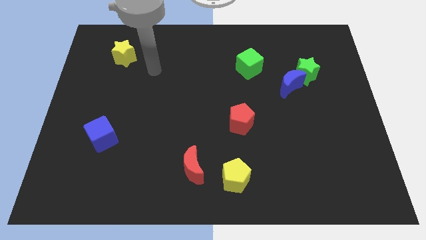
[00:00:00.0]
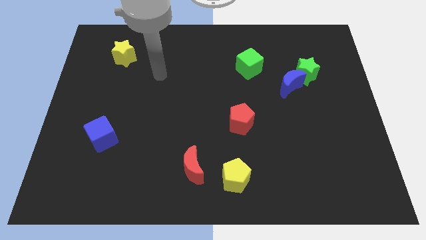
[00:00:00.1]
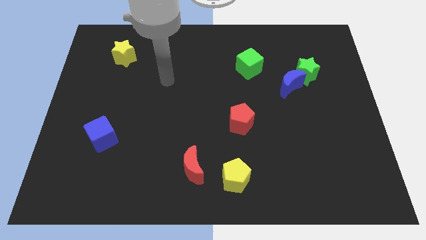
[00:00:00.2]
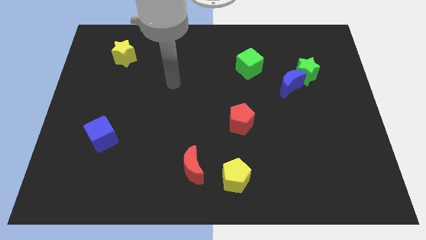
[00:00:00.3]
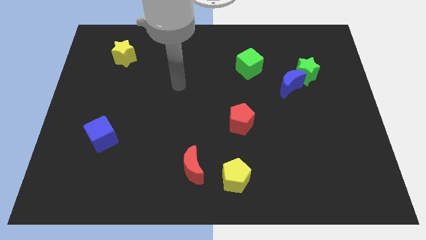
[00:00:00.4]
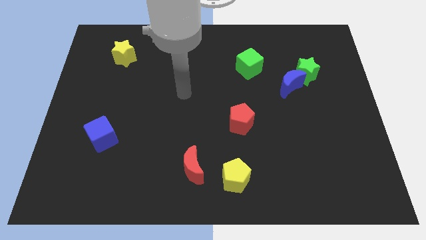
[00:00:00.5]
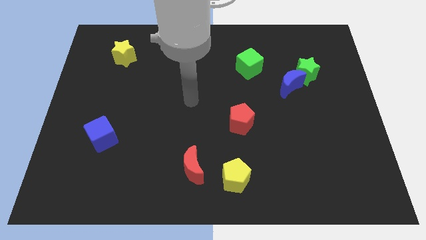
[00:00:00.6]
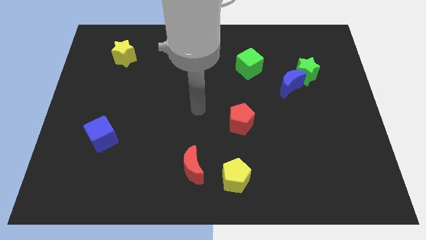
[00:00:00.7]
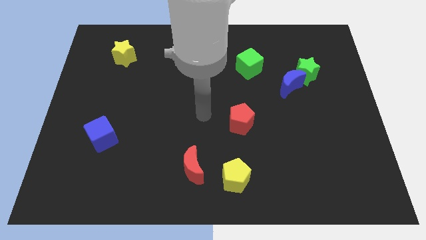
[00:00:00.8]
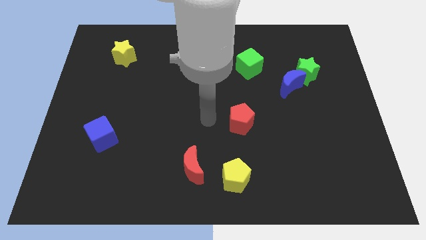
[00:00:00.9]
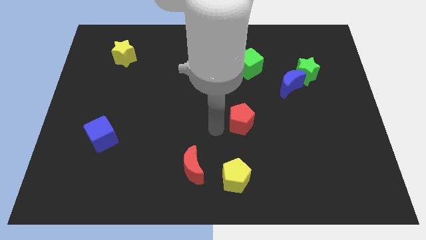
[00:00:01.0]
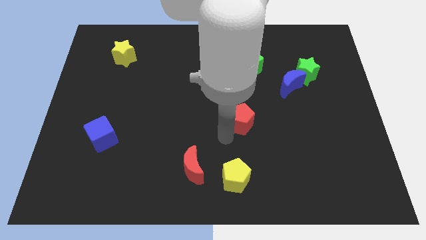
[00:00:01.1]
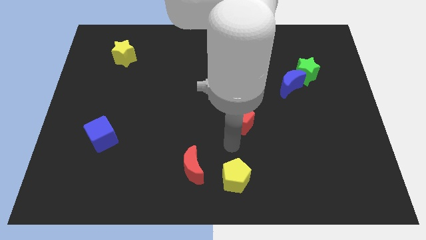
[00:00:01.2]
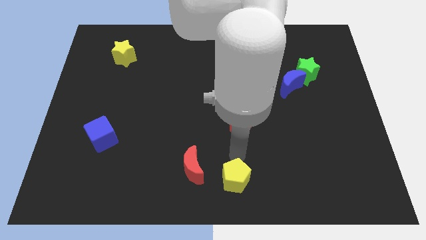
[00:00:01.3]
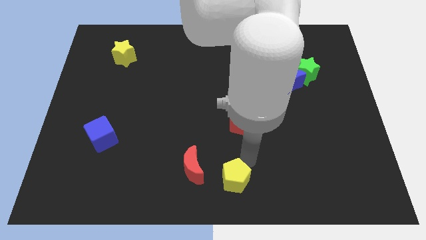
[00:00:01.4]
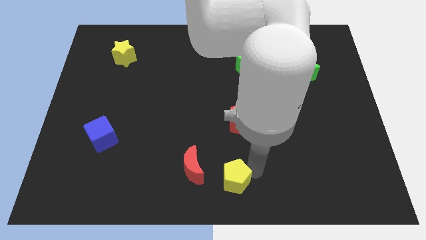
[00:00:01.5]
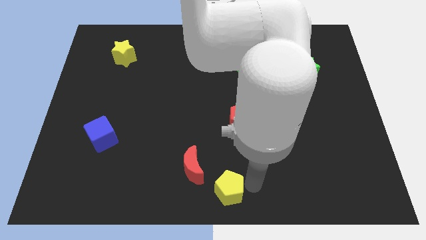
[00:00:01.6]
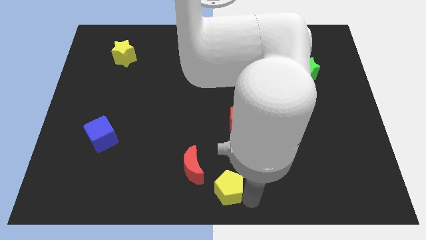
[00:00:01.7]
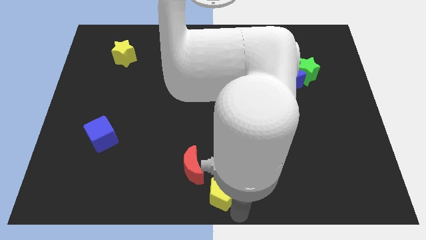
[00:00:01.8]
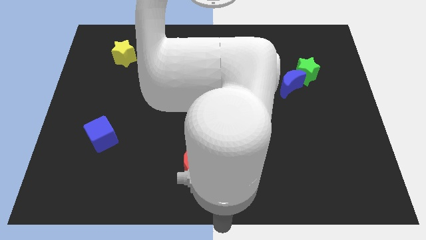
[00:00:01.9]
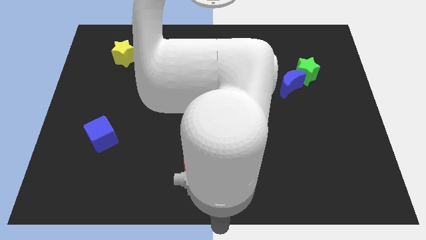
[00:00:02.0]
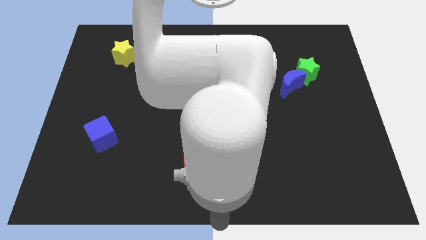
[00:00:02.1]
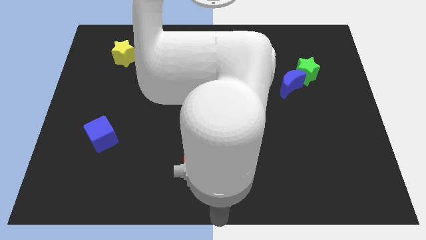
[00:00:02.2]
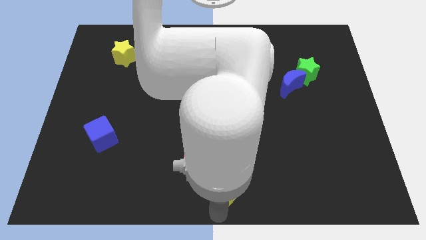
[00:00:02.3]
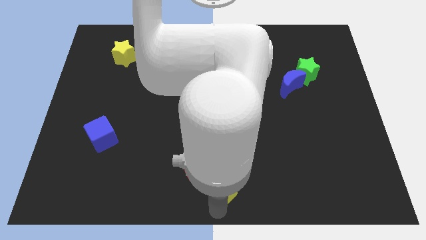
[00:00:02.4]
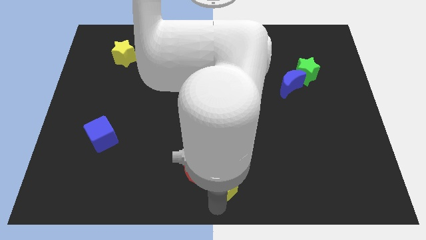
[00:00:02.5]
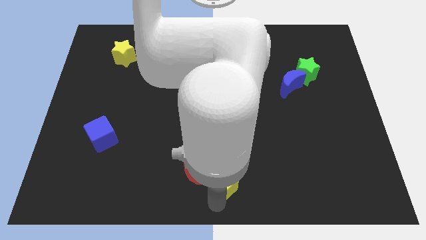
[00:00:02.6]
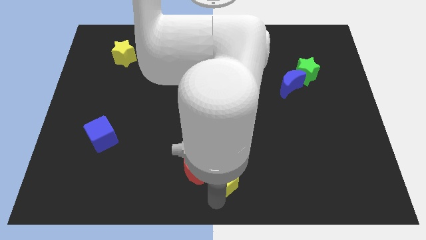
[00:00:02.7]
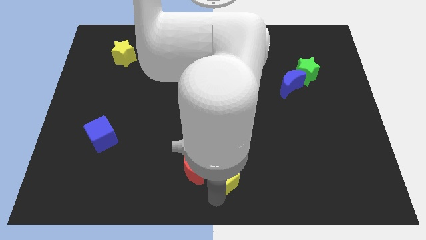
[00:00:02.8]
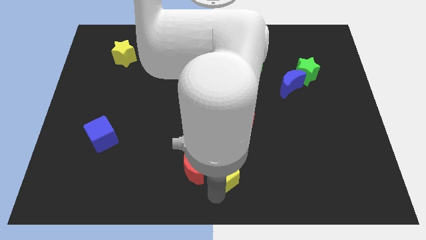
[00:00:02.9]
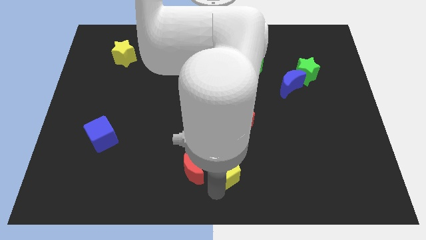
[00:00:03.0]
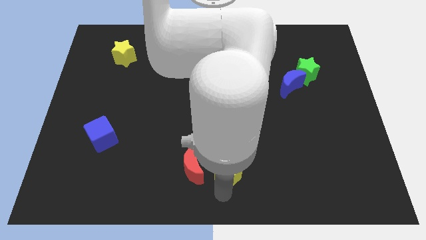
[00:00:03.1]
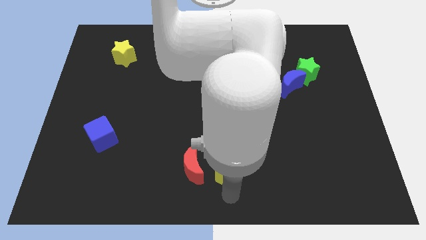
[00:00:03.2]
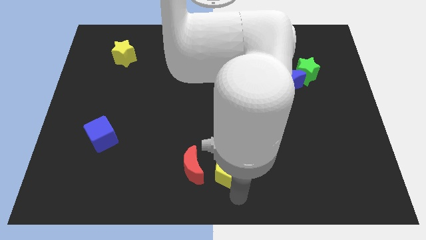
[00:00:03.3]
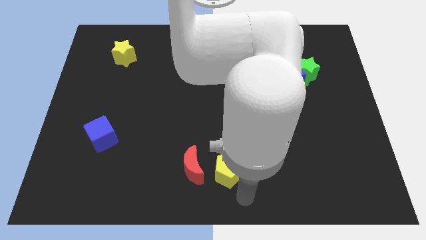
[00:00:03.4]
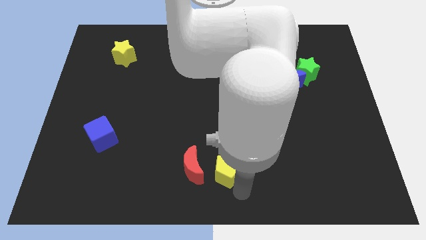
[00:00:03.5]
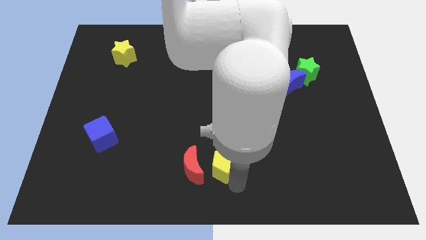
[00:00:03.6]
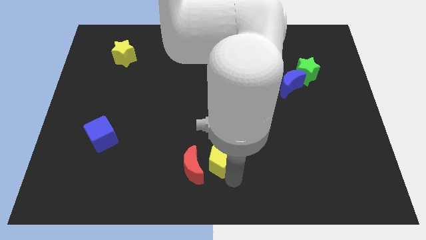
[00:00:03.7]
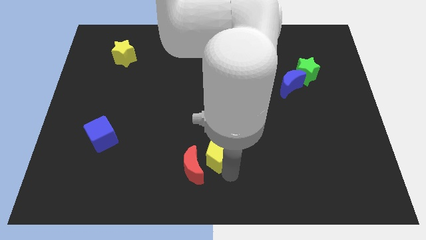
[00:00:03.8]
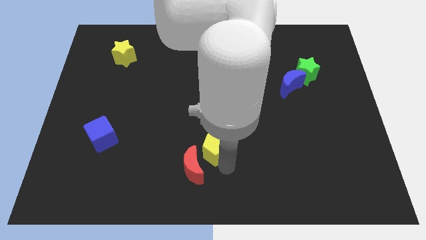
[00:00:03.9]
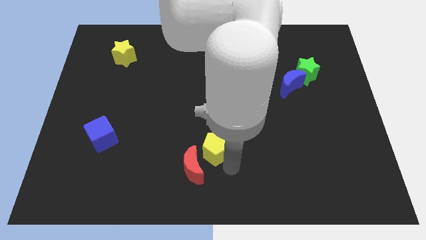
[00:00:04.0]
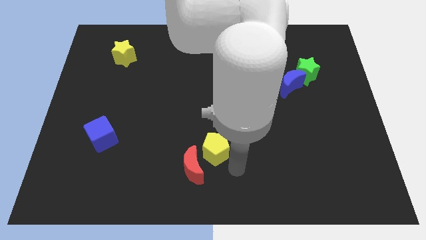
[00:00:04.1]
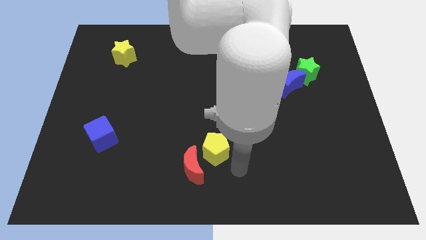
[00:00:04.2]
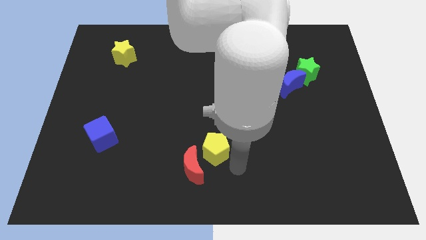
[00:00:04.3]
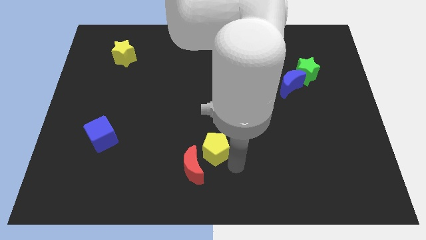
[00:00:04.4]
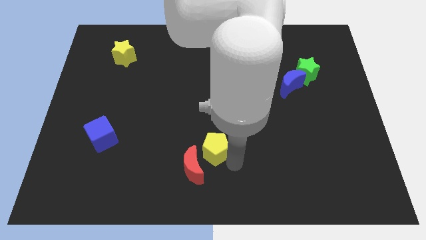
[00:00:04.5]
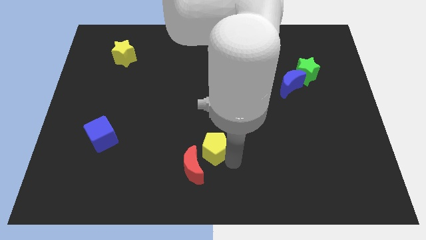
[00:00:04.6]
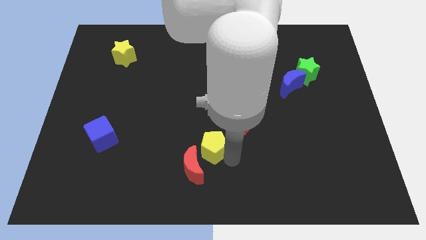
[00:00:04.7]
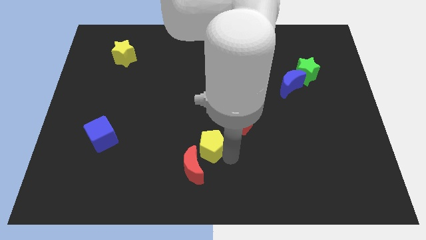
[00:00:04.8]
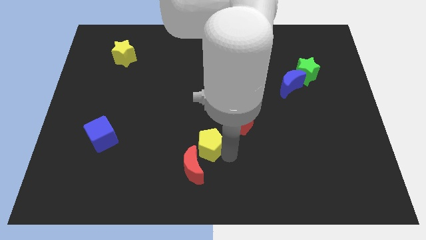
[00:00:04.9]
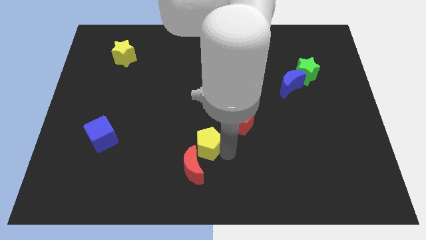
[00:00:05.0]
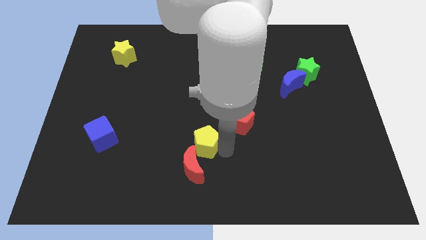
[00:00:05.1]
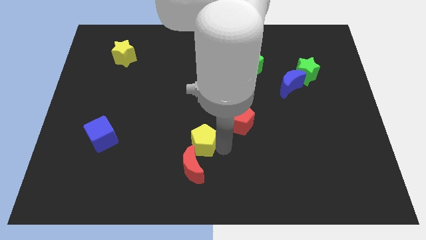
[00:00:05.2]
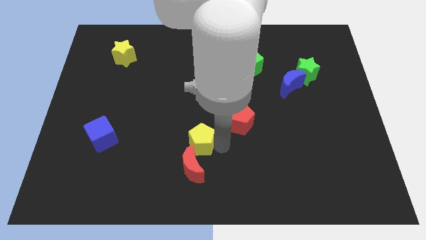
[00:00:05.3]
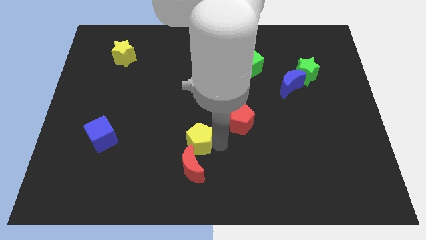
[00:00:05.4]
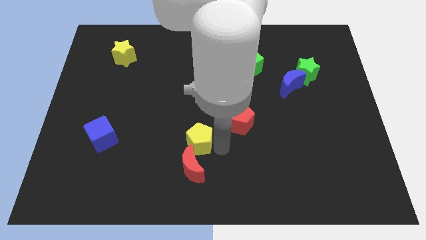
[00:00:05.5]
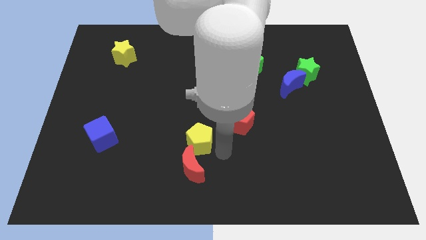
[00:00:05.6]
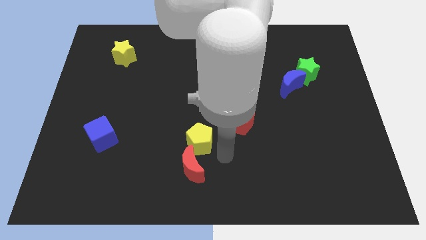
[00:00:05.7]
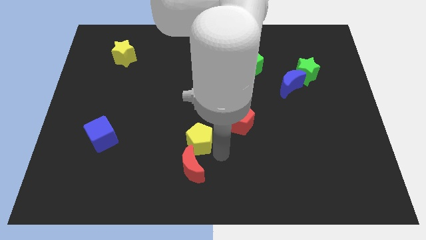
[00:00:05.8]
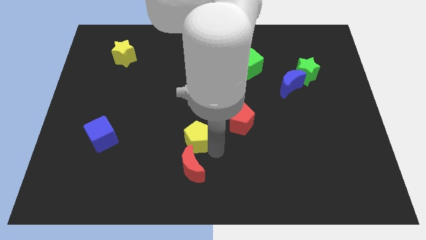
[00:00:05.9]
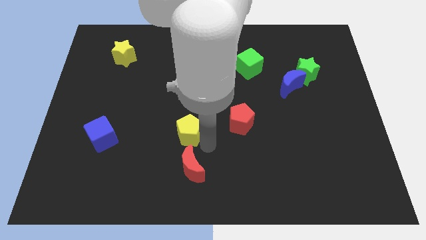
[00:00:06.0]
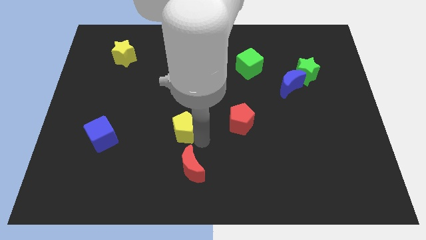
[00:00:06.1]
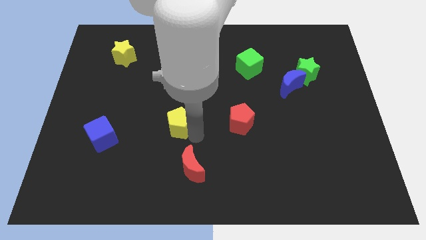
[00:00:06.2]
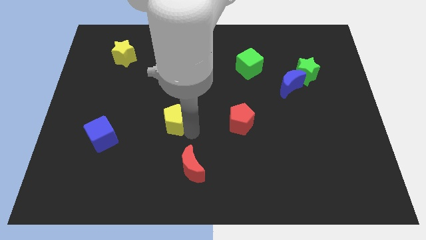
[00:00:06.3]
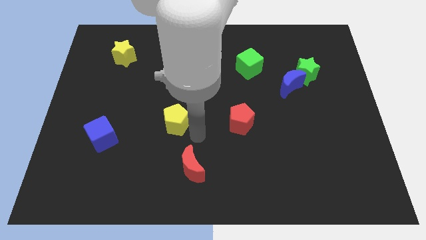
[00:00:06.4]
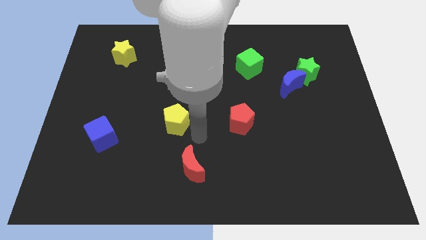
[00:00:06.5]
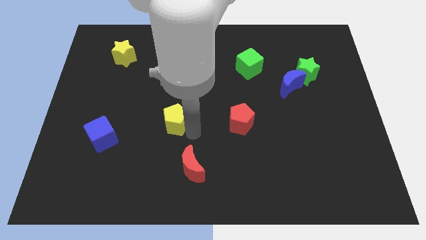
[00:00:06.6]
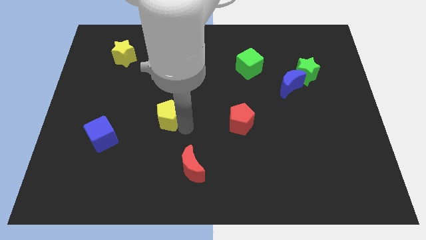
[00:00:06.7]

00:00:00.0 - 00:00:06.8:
slide the yellow pentagon up and left

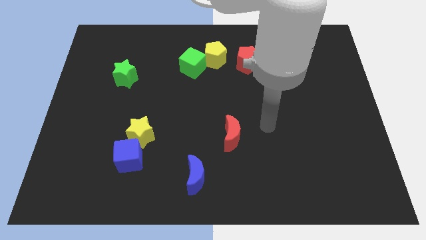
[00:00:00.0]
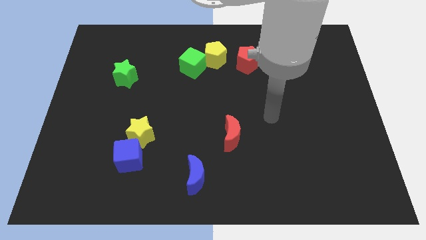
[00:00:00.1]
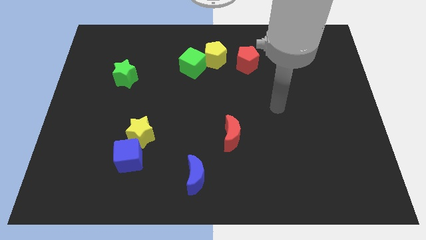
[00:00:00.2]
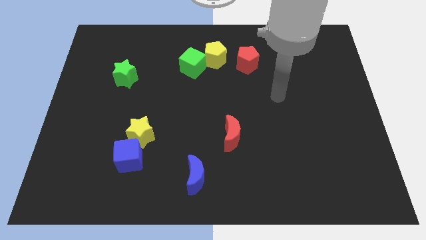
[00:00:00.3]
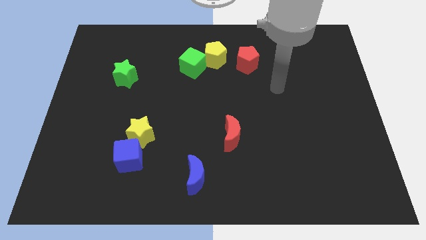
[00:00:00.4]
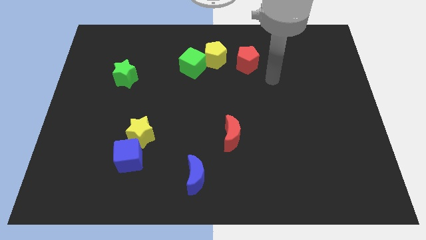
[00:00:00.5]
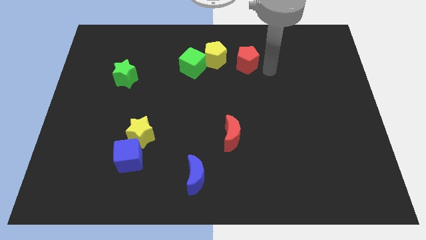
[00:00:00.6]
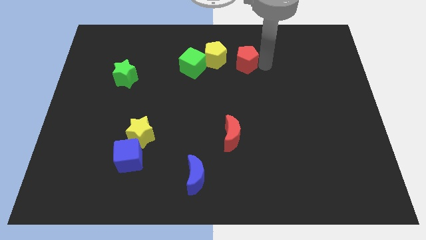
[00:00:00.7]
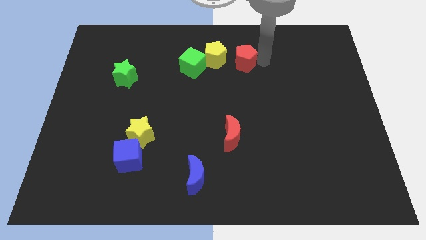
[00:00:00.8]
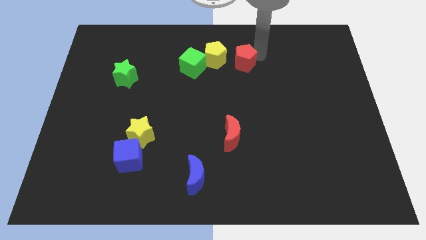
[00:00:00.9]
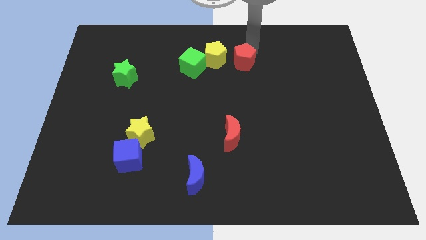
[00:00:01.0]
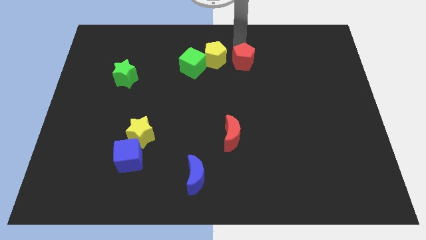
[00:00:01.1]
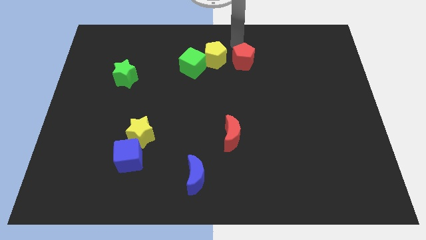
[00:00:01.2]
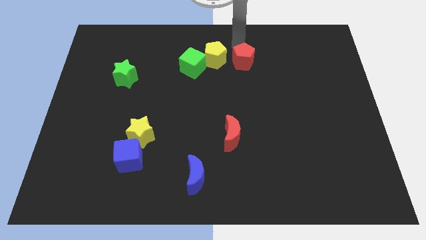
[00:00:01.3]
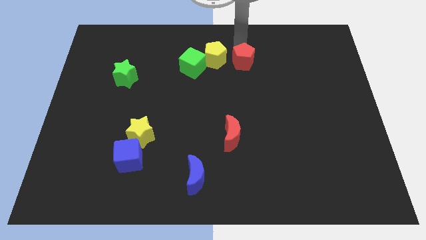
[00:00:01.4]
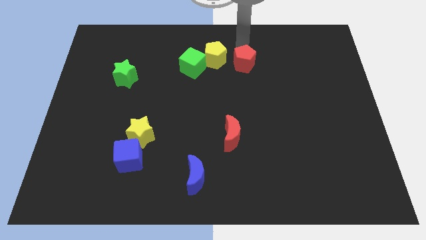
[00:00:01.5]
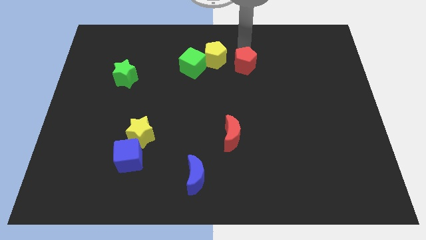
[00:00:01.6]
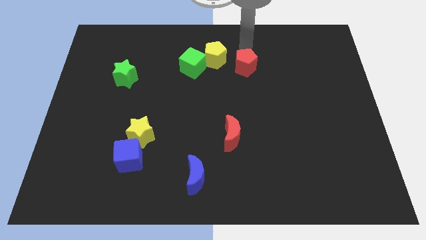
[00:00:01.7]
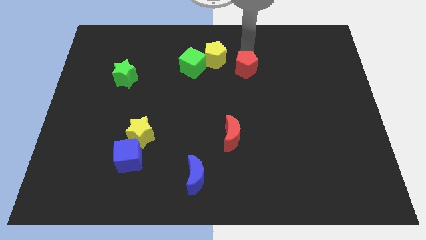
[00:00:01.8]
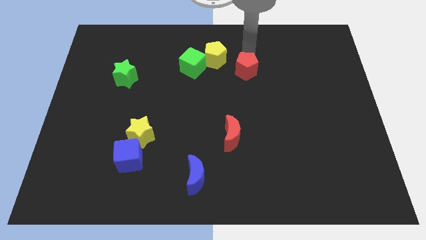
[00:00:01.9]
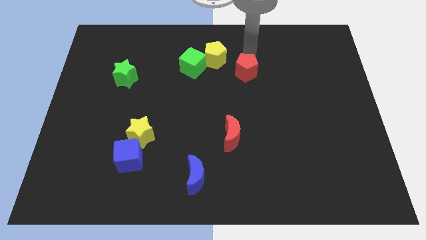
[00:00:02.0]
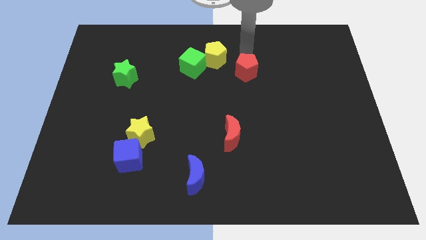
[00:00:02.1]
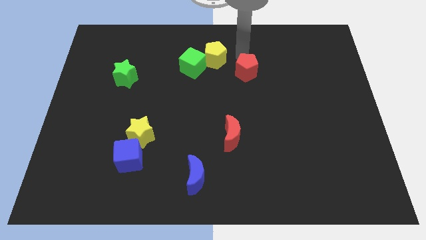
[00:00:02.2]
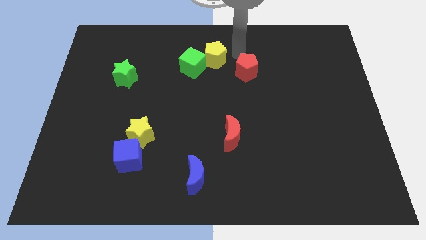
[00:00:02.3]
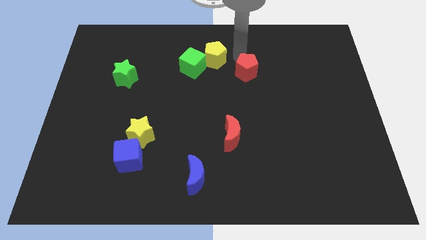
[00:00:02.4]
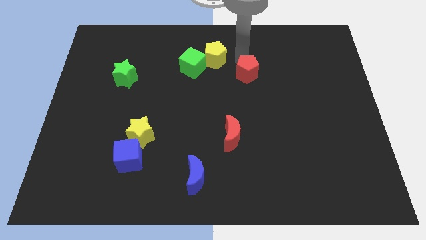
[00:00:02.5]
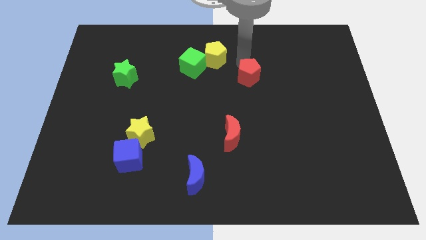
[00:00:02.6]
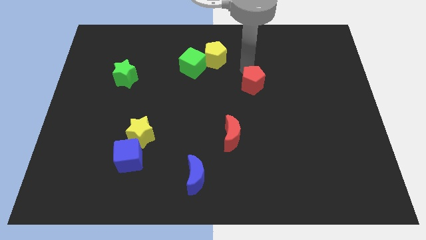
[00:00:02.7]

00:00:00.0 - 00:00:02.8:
slide the red pentagon slightly down
